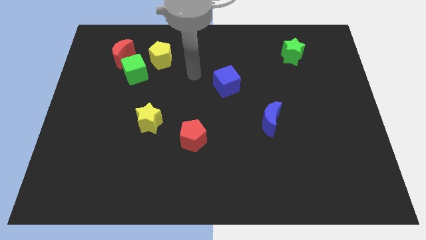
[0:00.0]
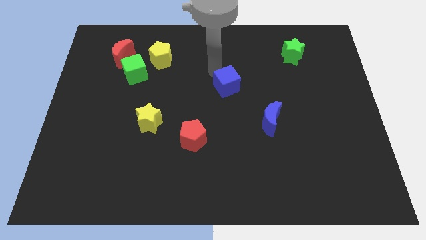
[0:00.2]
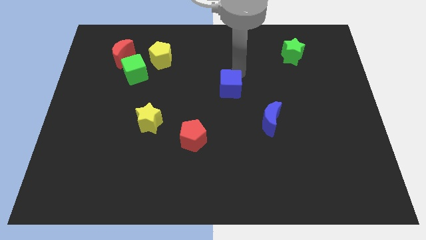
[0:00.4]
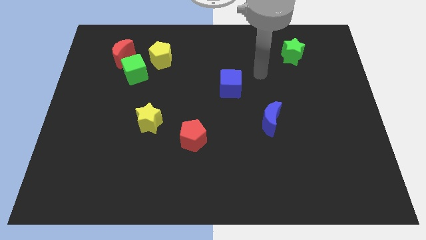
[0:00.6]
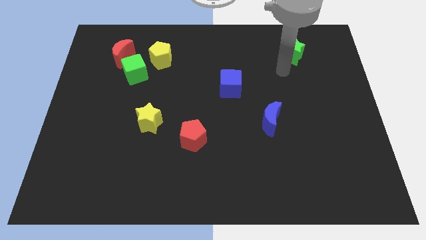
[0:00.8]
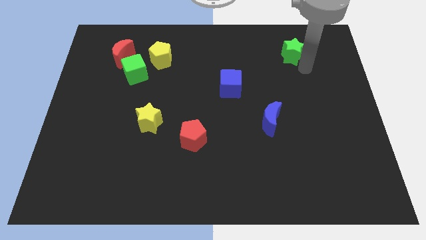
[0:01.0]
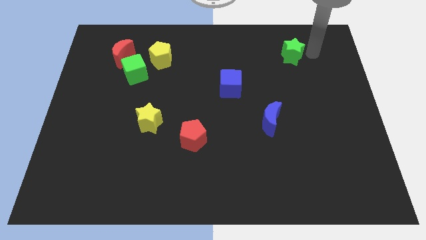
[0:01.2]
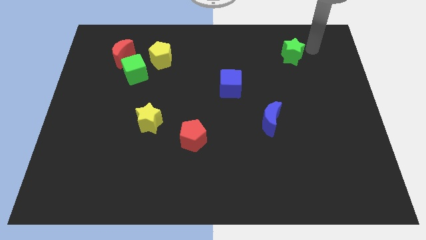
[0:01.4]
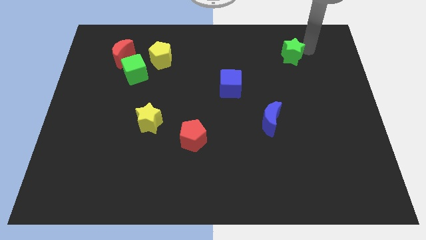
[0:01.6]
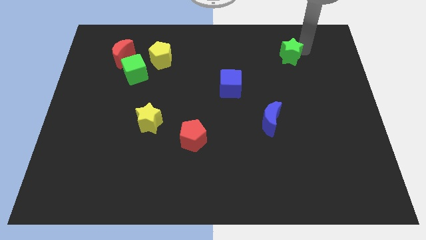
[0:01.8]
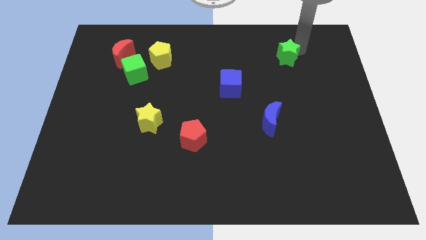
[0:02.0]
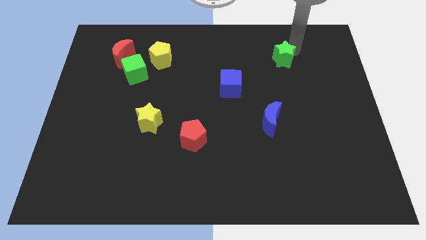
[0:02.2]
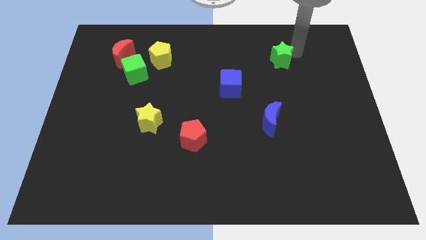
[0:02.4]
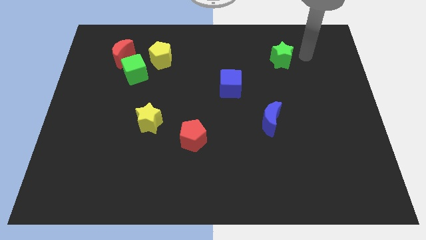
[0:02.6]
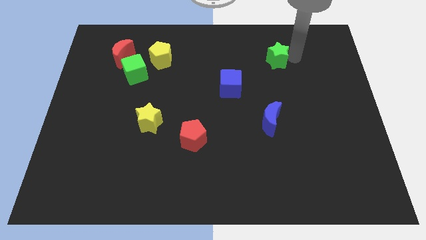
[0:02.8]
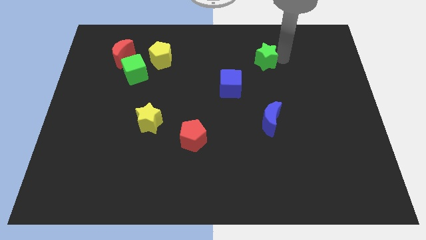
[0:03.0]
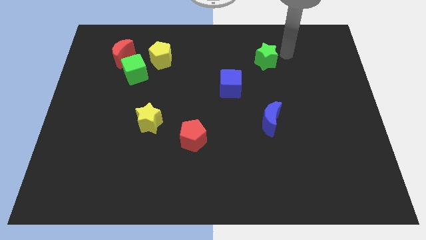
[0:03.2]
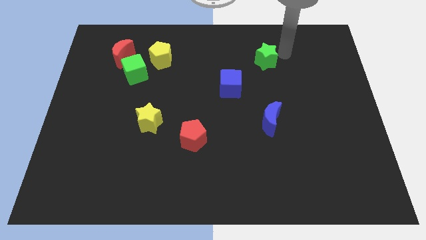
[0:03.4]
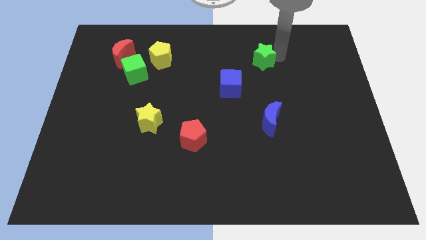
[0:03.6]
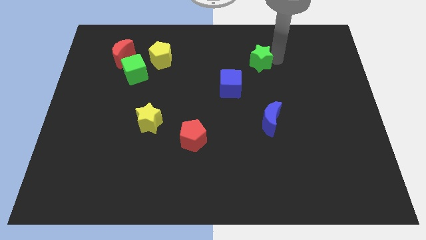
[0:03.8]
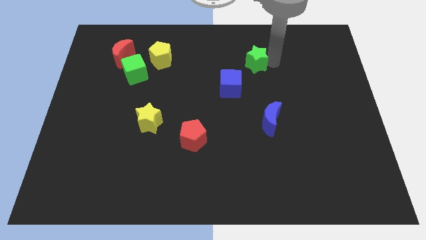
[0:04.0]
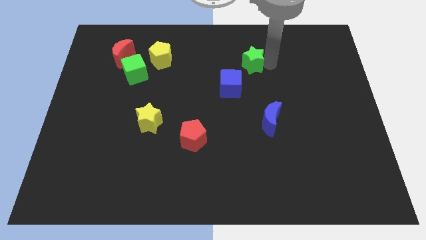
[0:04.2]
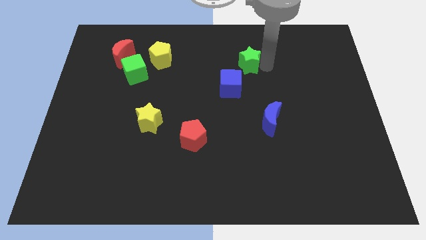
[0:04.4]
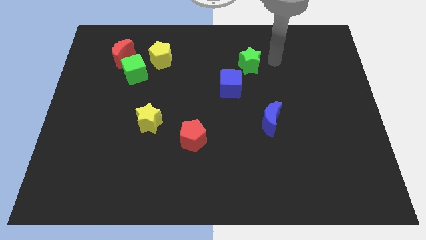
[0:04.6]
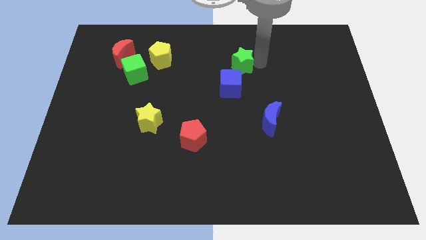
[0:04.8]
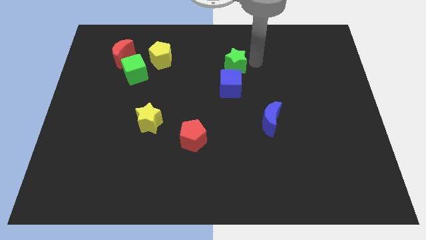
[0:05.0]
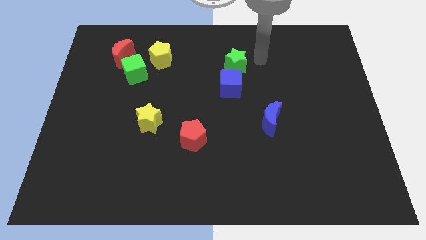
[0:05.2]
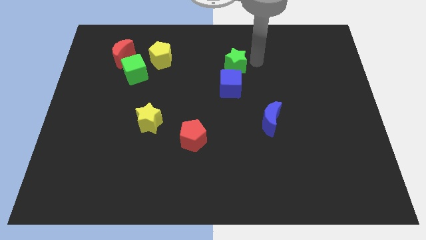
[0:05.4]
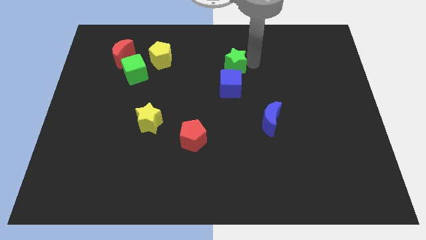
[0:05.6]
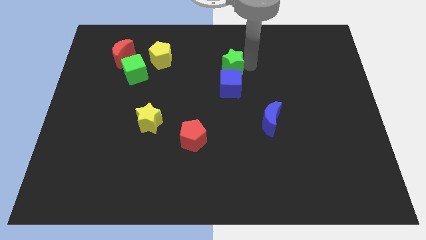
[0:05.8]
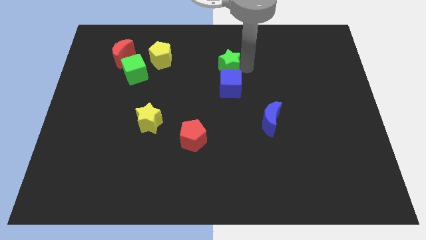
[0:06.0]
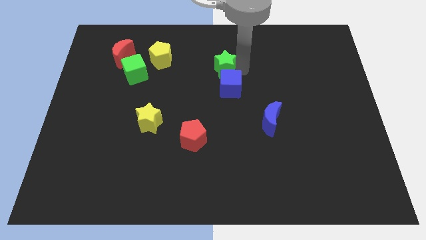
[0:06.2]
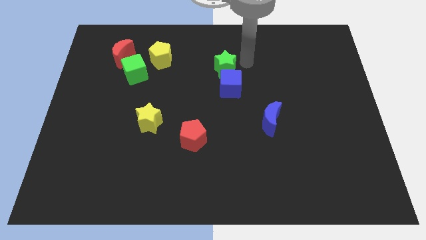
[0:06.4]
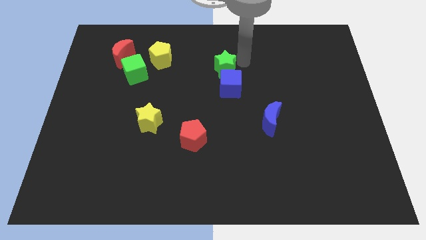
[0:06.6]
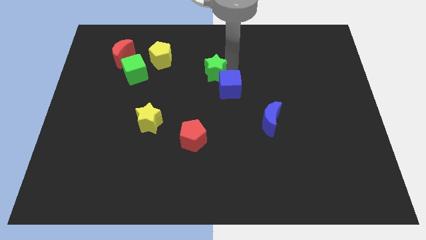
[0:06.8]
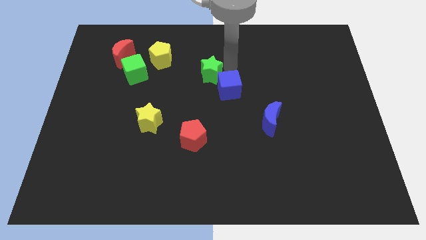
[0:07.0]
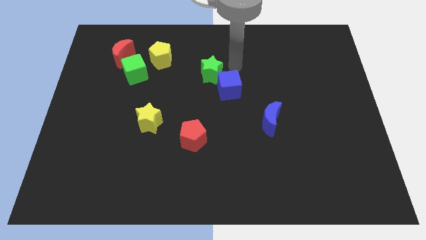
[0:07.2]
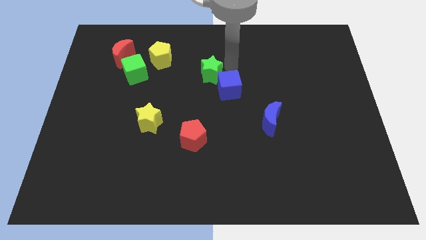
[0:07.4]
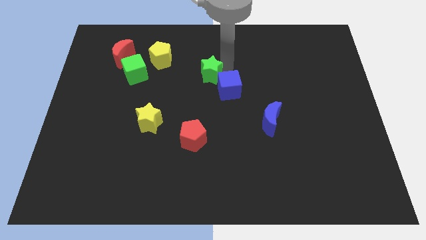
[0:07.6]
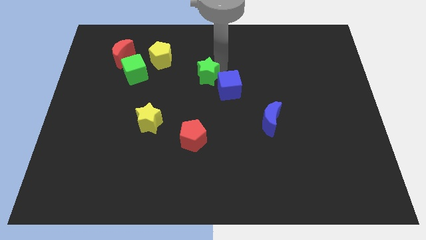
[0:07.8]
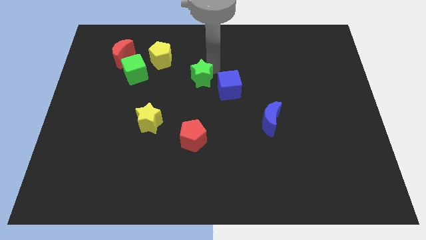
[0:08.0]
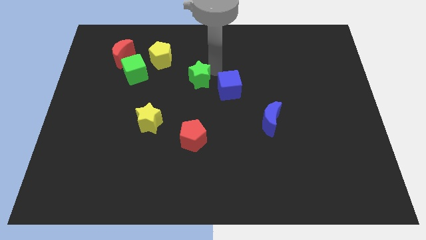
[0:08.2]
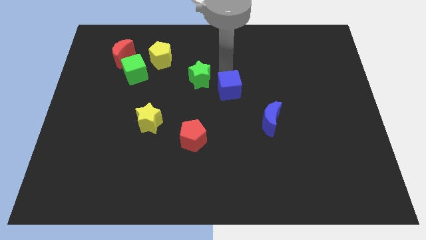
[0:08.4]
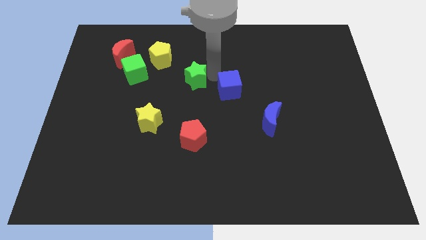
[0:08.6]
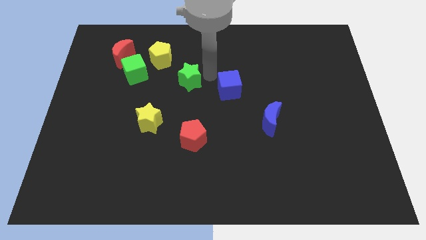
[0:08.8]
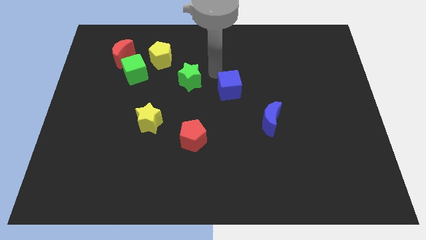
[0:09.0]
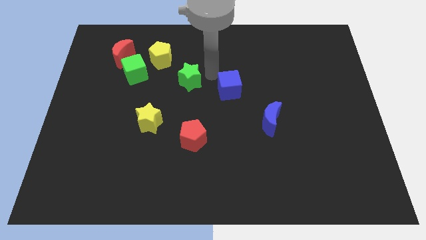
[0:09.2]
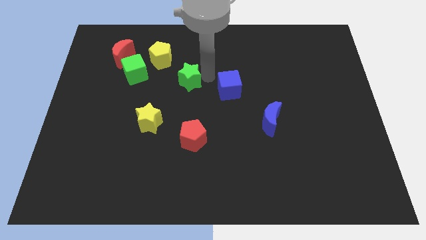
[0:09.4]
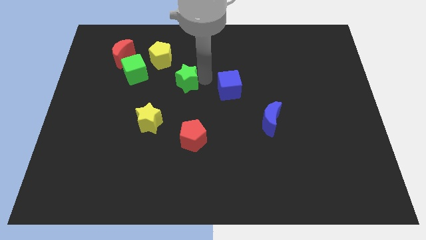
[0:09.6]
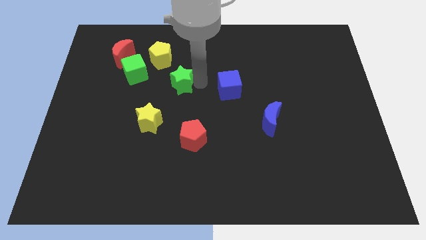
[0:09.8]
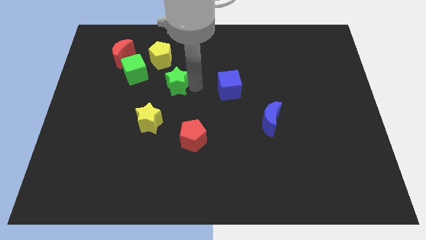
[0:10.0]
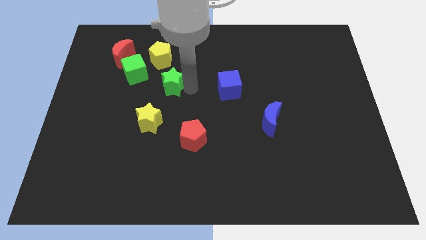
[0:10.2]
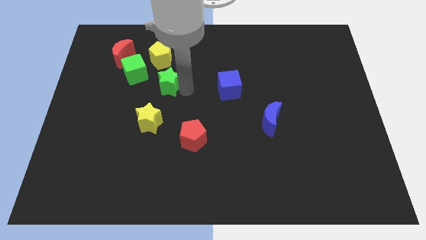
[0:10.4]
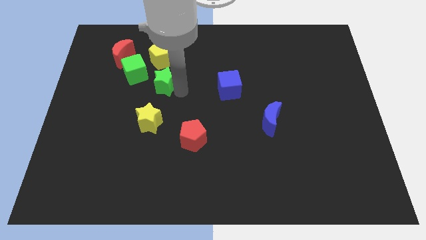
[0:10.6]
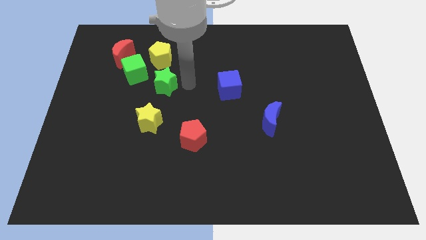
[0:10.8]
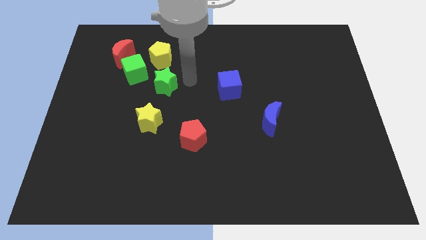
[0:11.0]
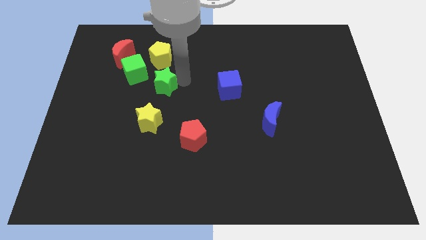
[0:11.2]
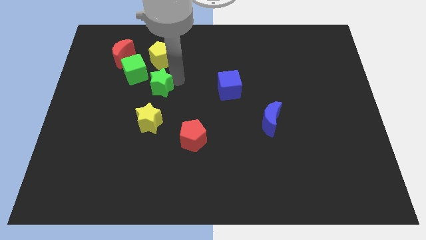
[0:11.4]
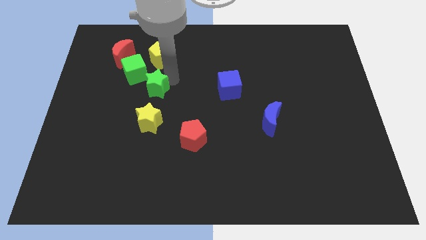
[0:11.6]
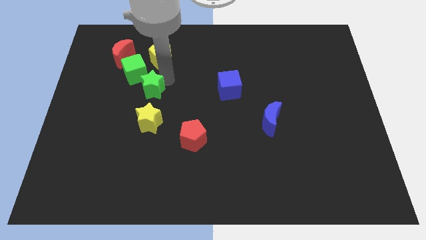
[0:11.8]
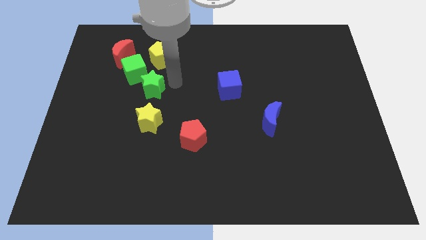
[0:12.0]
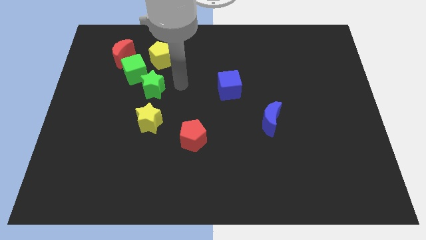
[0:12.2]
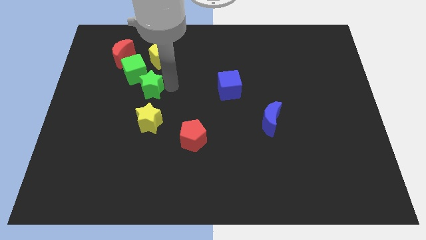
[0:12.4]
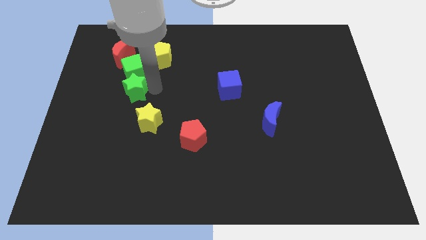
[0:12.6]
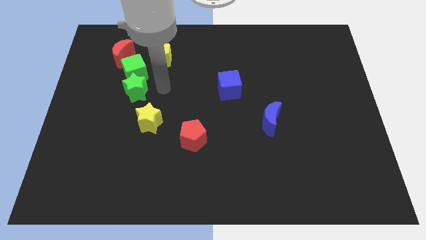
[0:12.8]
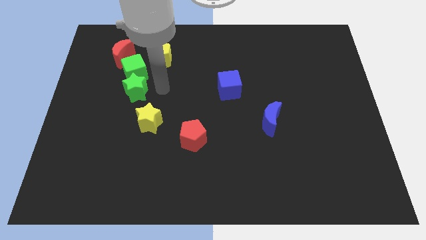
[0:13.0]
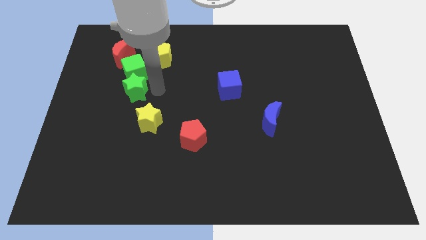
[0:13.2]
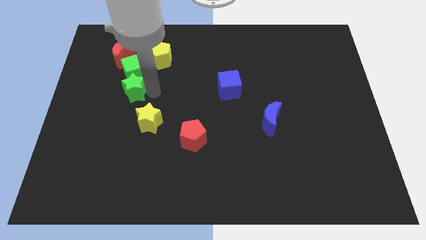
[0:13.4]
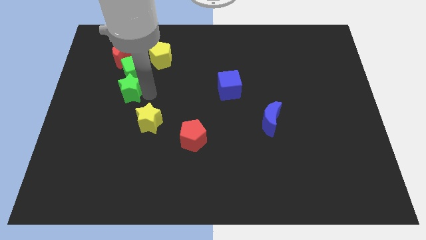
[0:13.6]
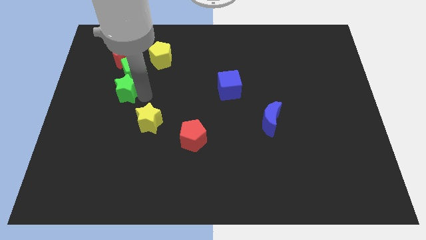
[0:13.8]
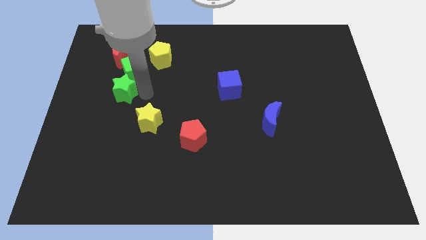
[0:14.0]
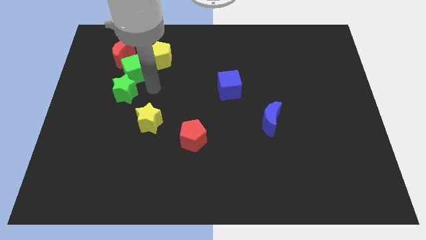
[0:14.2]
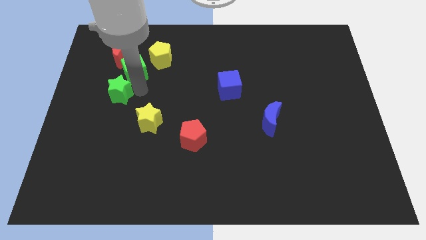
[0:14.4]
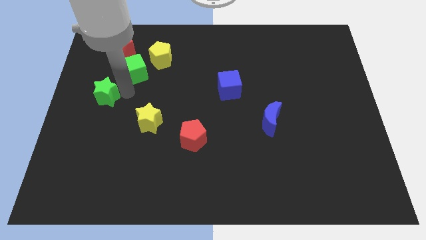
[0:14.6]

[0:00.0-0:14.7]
move the green star to the left side

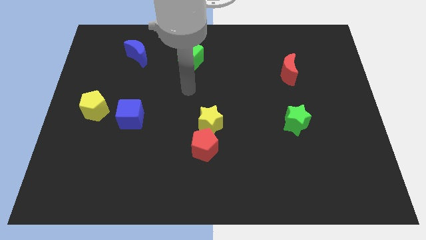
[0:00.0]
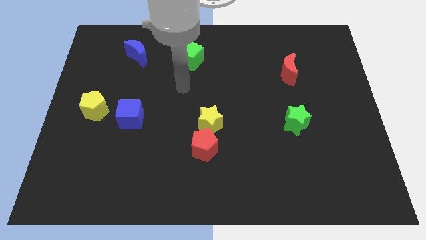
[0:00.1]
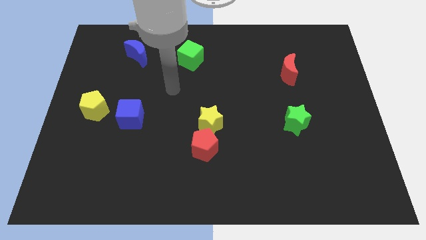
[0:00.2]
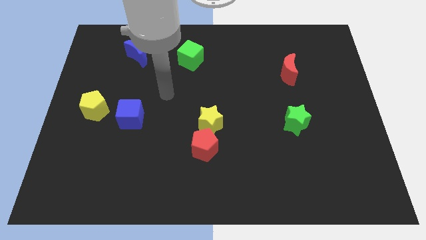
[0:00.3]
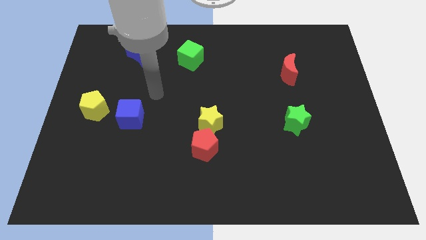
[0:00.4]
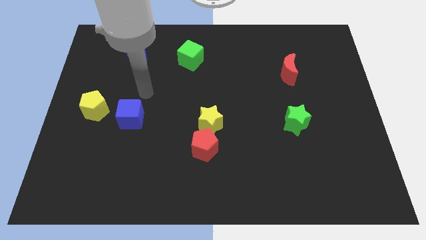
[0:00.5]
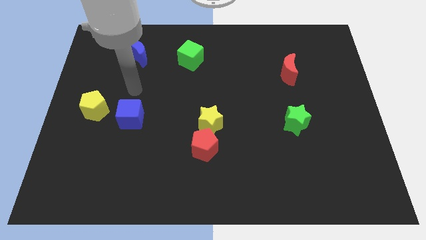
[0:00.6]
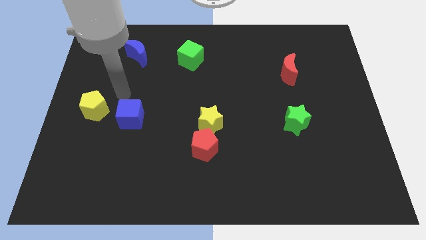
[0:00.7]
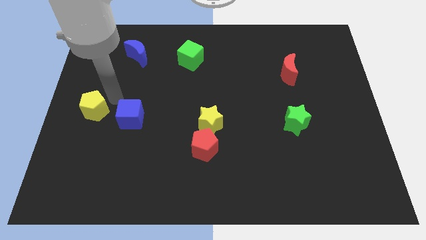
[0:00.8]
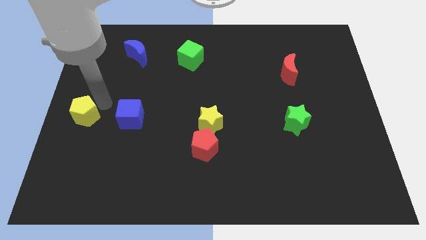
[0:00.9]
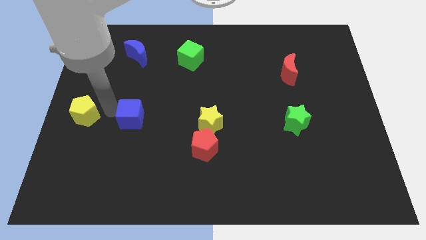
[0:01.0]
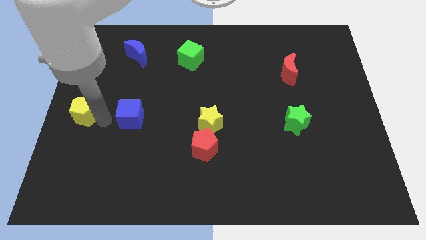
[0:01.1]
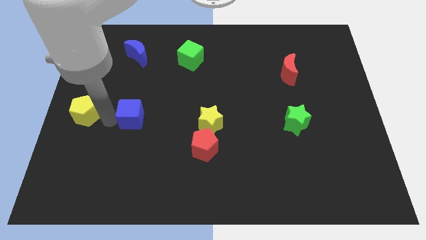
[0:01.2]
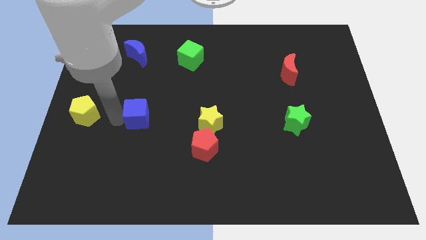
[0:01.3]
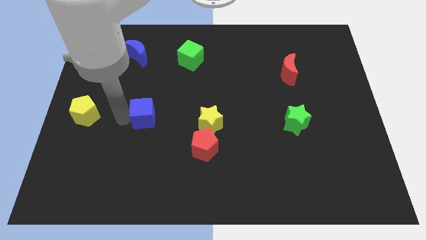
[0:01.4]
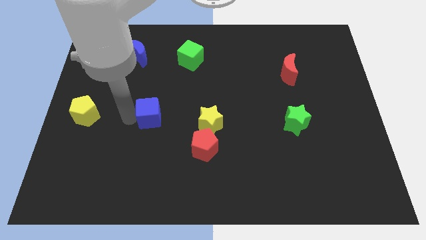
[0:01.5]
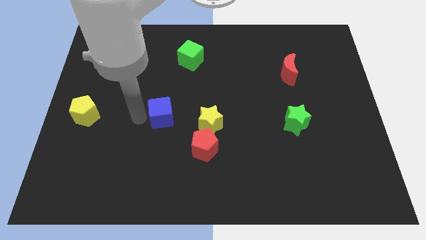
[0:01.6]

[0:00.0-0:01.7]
move the blue cube to the center of the board
